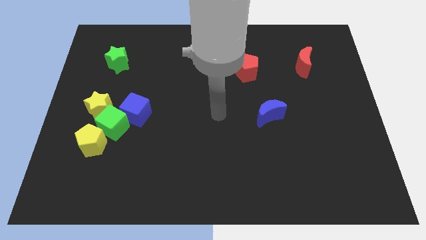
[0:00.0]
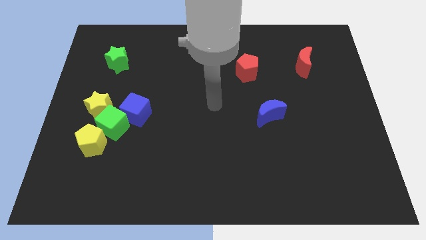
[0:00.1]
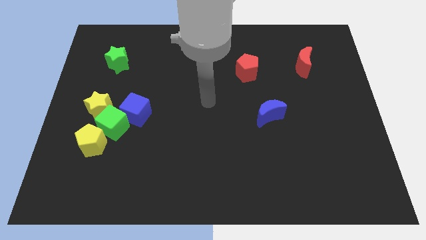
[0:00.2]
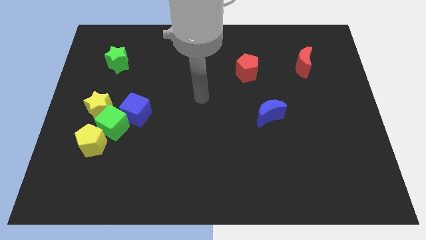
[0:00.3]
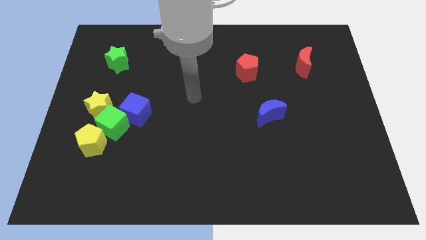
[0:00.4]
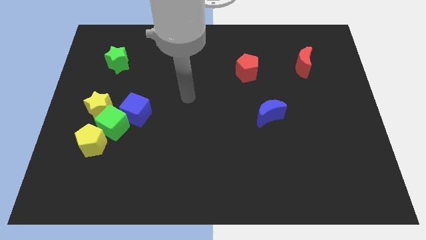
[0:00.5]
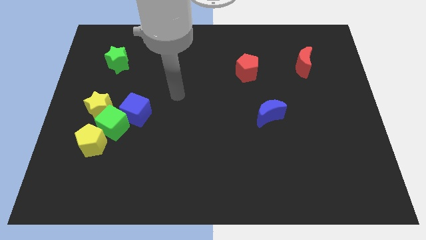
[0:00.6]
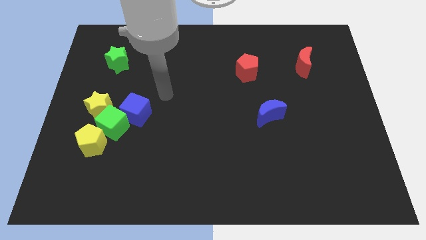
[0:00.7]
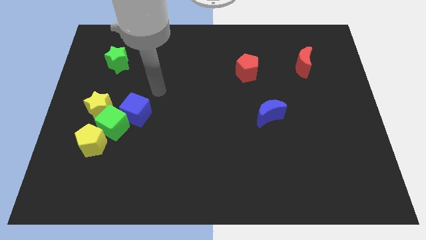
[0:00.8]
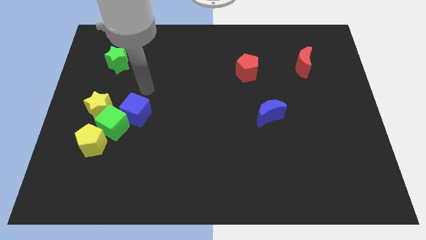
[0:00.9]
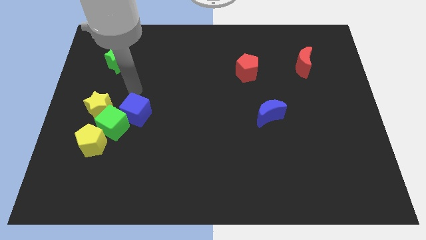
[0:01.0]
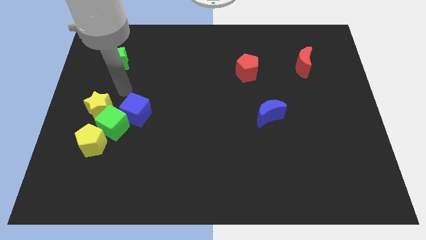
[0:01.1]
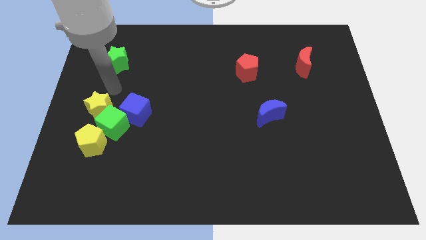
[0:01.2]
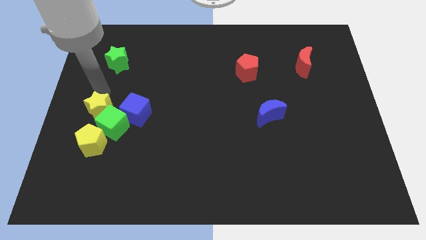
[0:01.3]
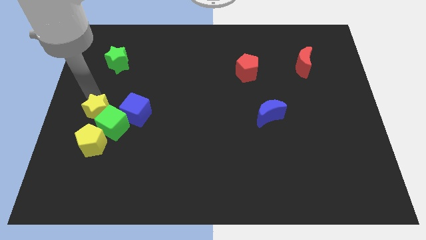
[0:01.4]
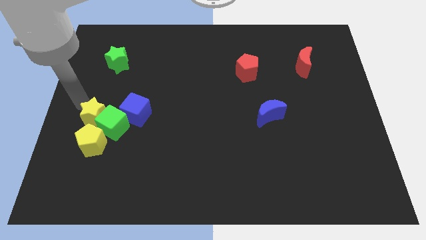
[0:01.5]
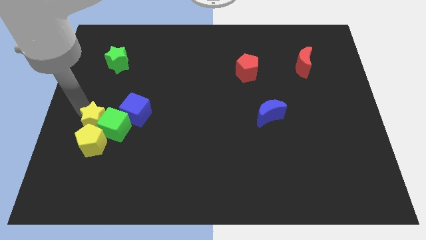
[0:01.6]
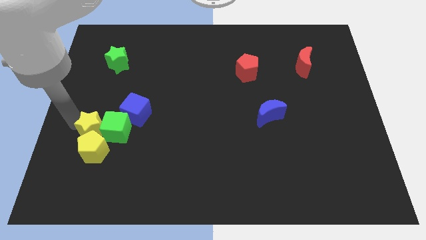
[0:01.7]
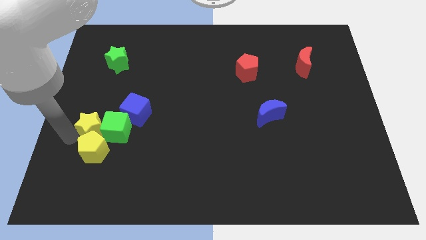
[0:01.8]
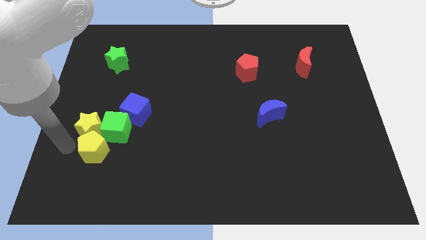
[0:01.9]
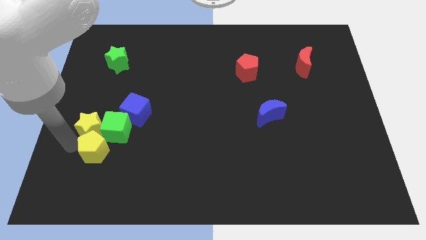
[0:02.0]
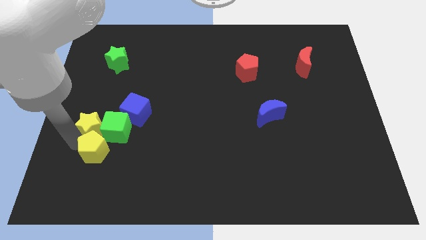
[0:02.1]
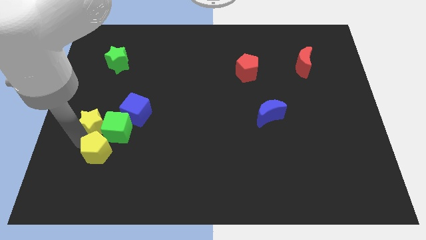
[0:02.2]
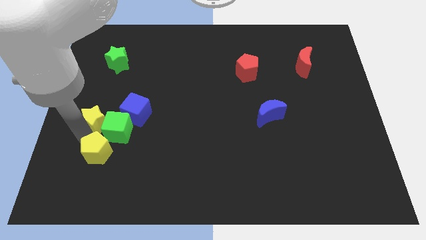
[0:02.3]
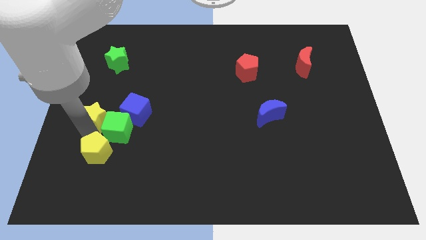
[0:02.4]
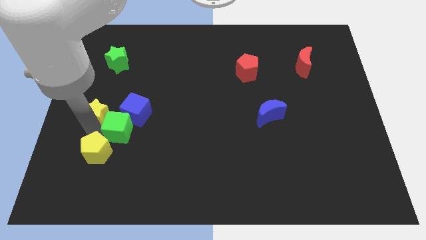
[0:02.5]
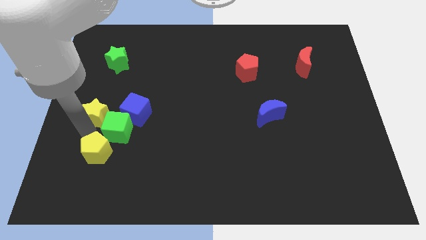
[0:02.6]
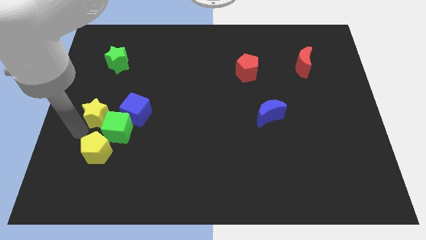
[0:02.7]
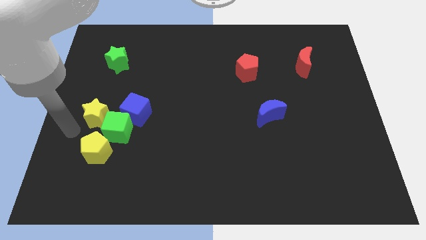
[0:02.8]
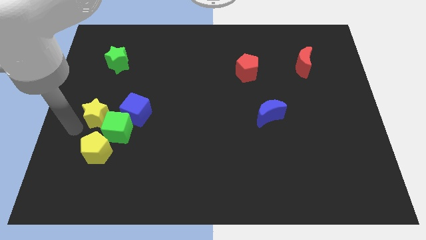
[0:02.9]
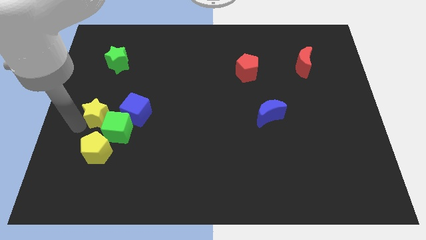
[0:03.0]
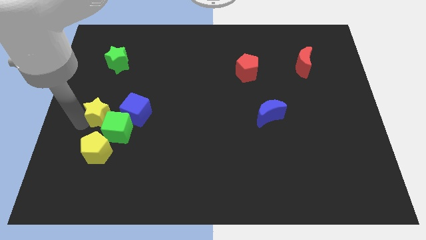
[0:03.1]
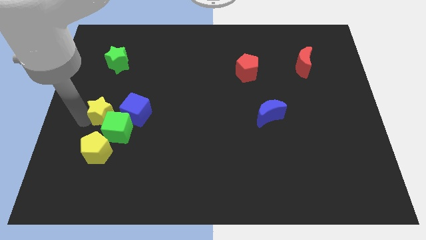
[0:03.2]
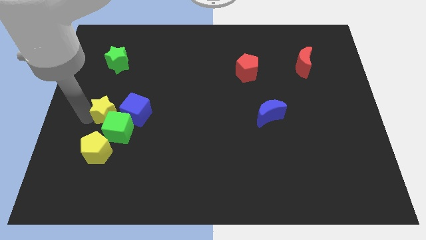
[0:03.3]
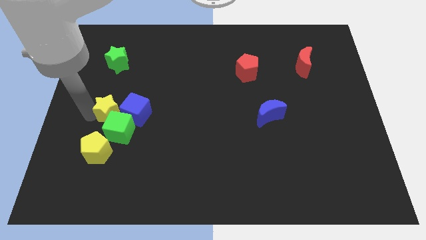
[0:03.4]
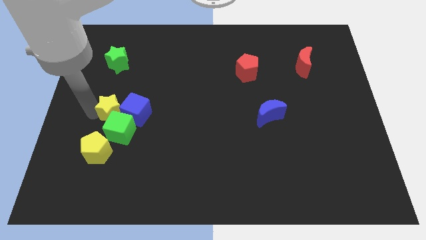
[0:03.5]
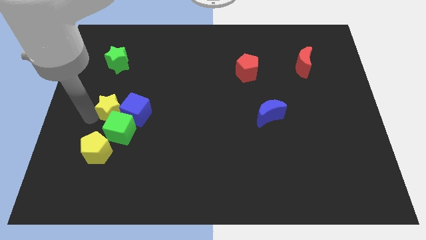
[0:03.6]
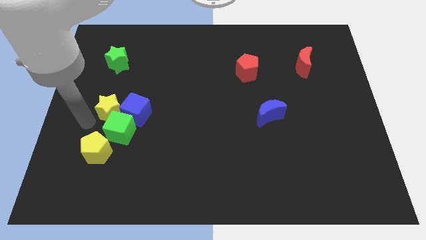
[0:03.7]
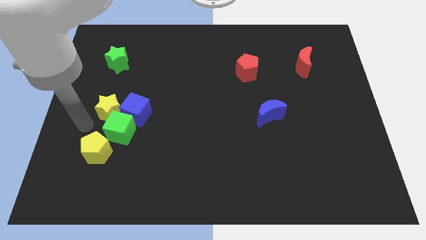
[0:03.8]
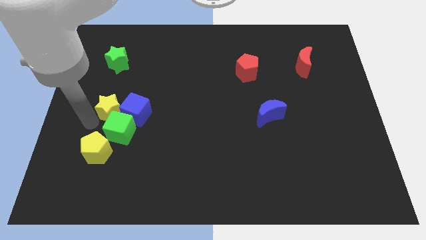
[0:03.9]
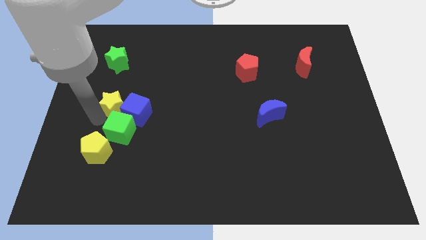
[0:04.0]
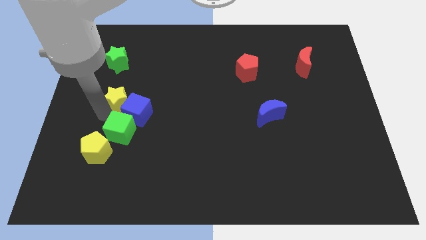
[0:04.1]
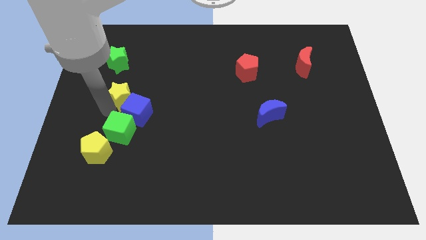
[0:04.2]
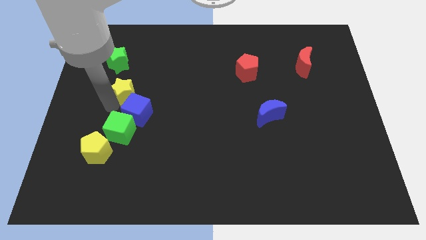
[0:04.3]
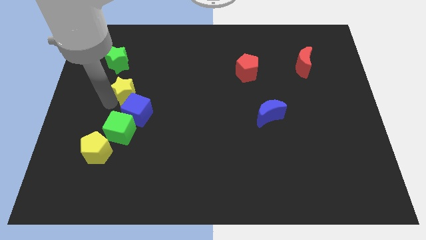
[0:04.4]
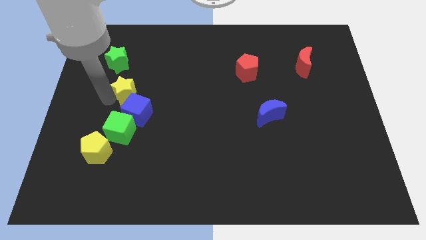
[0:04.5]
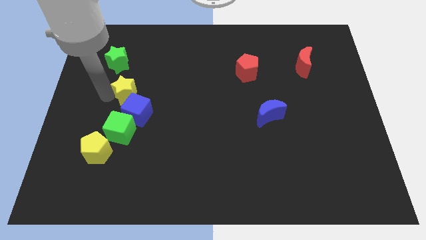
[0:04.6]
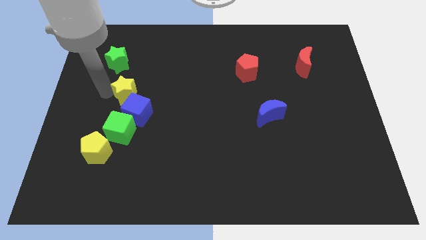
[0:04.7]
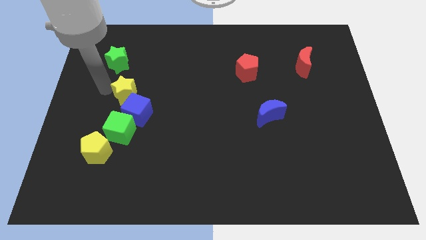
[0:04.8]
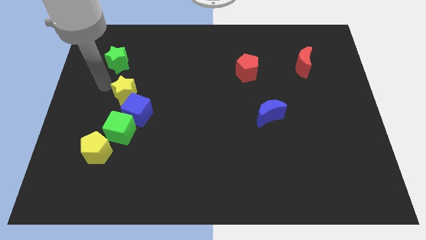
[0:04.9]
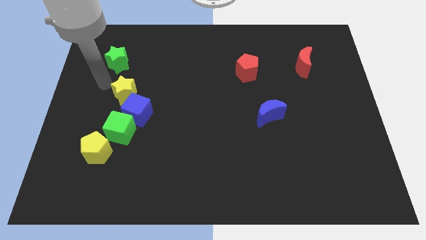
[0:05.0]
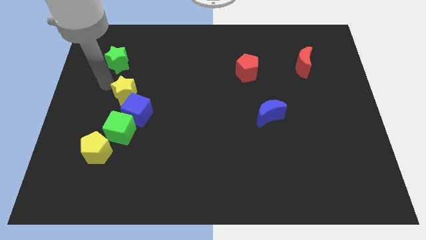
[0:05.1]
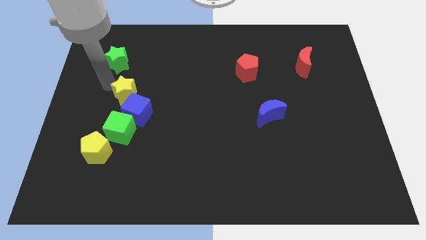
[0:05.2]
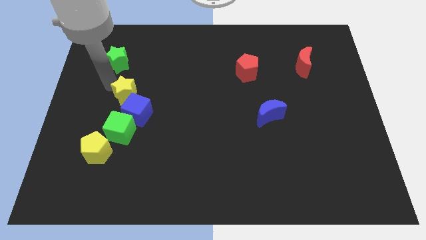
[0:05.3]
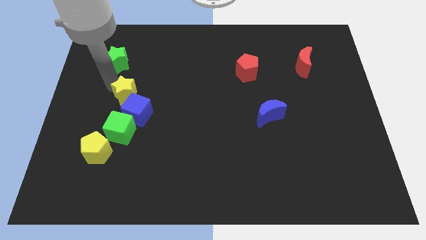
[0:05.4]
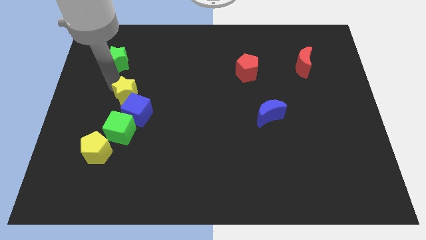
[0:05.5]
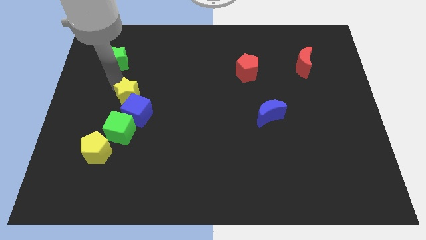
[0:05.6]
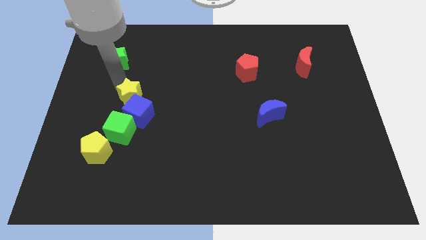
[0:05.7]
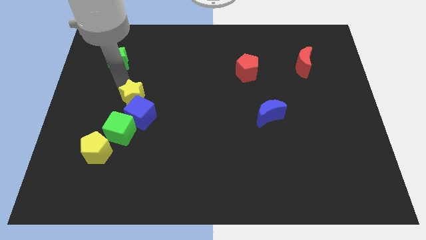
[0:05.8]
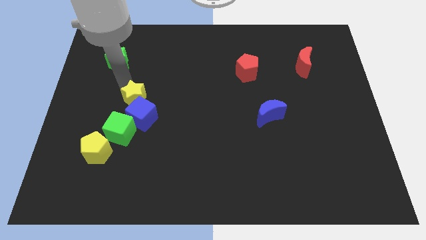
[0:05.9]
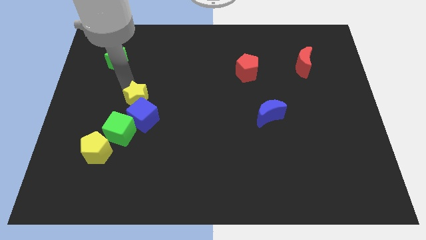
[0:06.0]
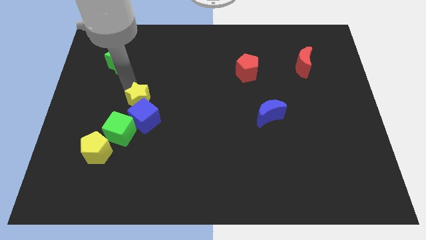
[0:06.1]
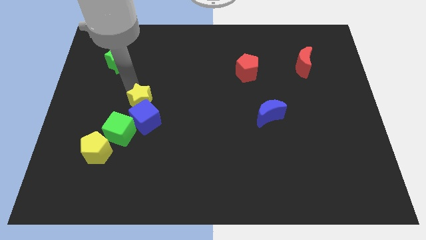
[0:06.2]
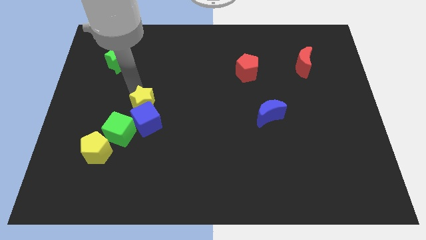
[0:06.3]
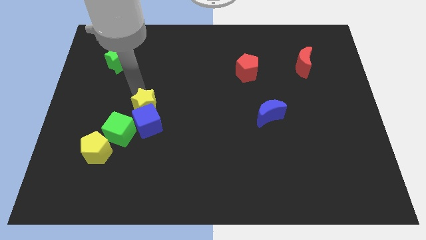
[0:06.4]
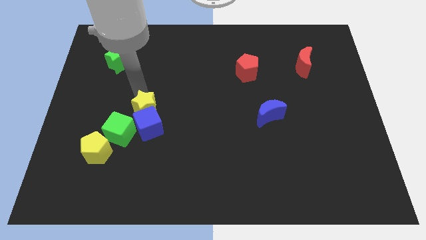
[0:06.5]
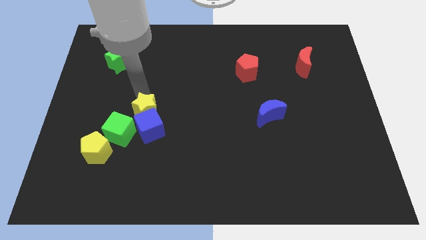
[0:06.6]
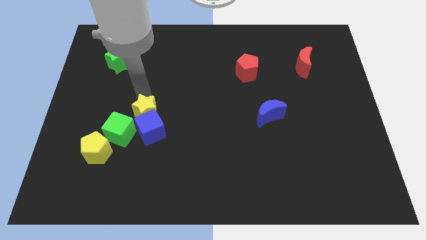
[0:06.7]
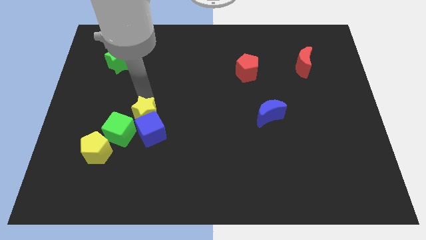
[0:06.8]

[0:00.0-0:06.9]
slide the yellow star diagonally down and to the right a bit

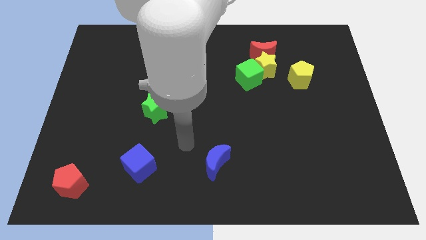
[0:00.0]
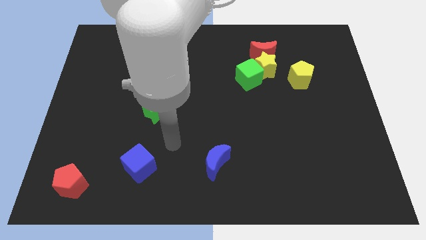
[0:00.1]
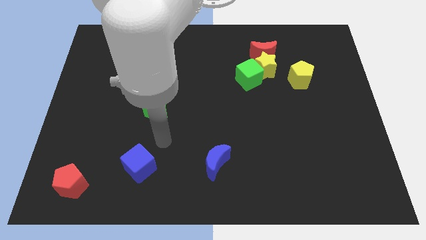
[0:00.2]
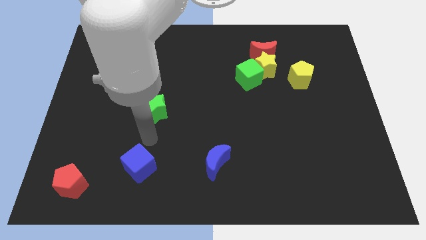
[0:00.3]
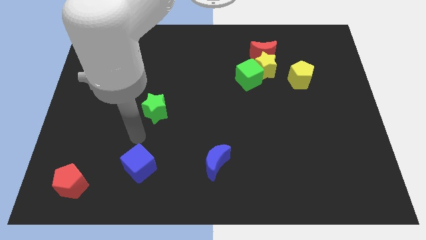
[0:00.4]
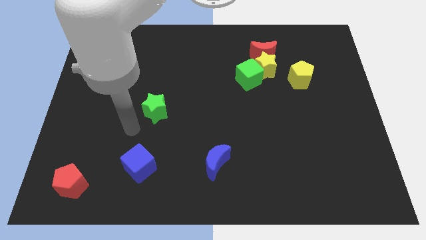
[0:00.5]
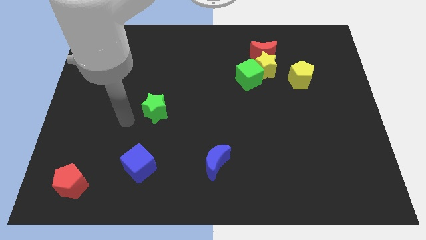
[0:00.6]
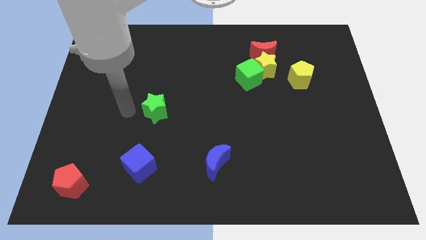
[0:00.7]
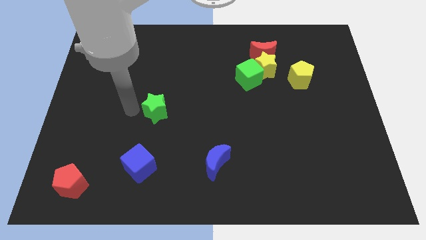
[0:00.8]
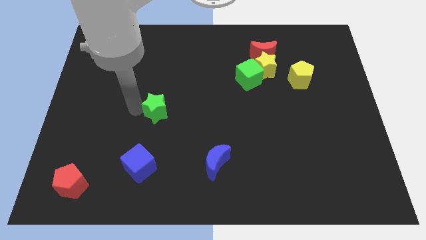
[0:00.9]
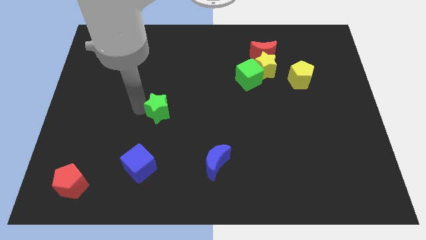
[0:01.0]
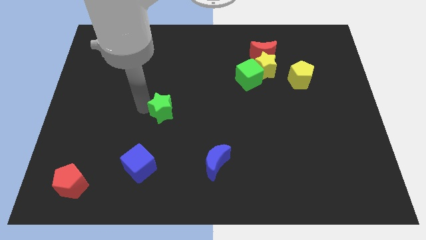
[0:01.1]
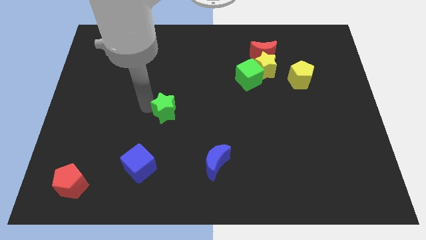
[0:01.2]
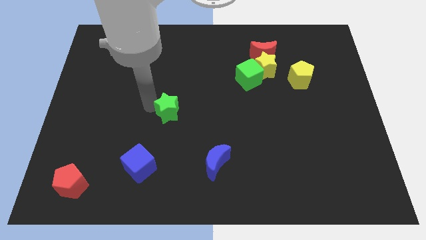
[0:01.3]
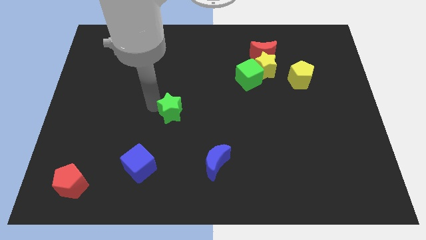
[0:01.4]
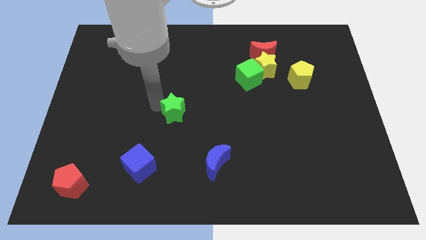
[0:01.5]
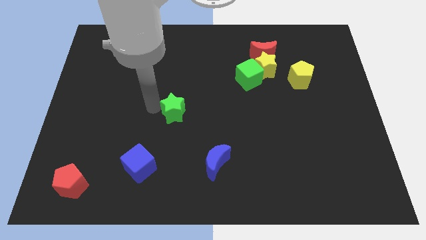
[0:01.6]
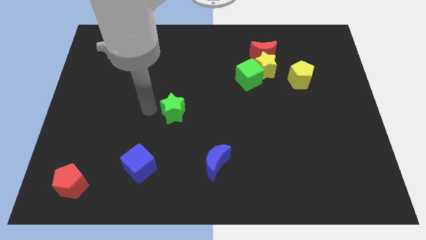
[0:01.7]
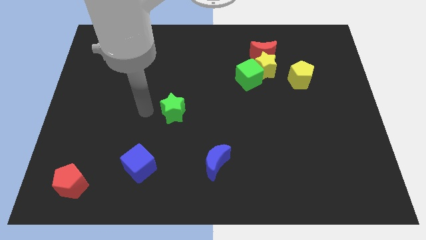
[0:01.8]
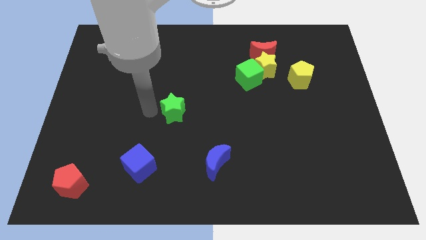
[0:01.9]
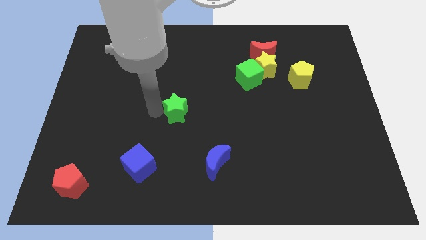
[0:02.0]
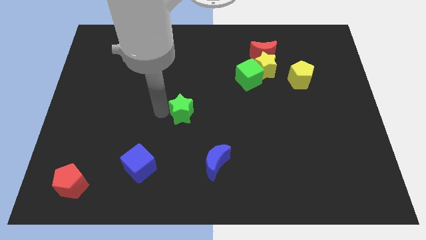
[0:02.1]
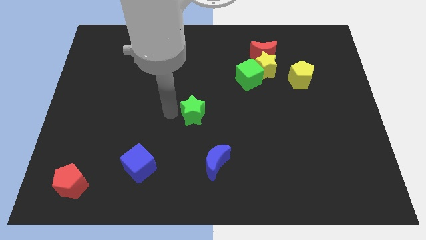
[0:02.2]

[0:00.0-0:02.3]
slide the green star right a little
